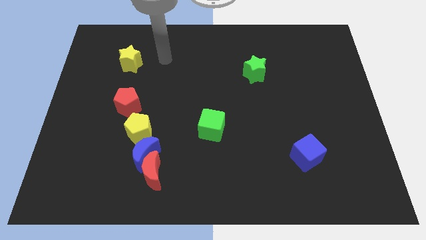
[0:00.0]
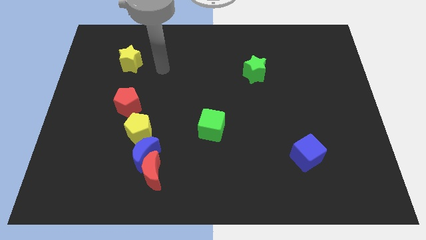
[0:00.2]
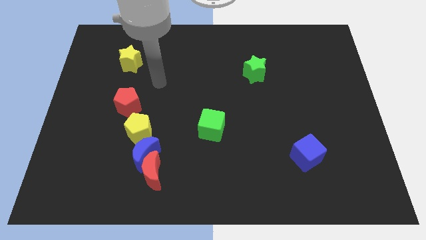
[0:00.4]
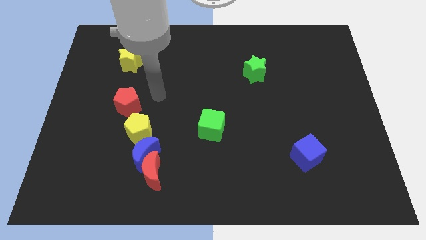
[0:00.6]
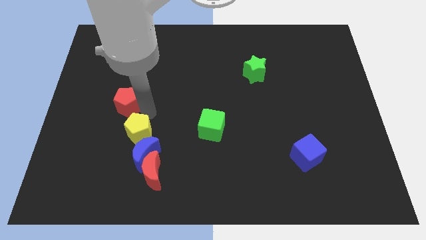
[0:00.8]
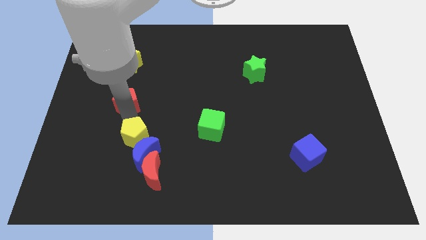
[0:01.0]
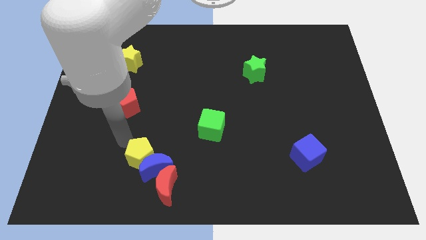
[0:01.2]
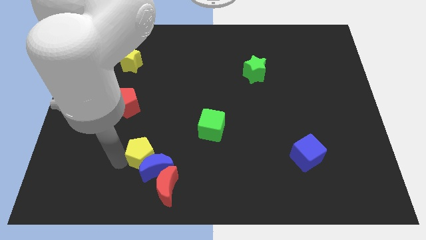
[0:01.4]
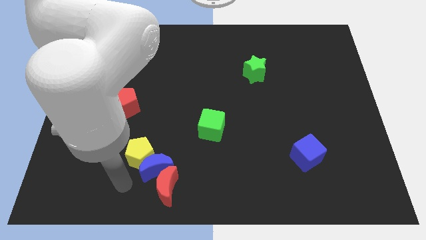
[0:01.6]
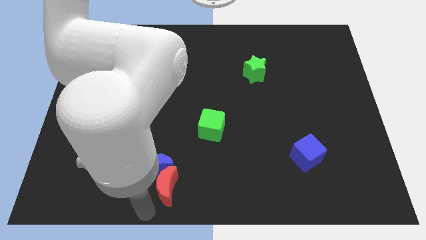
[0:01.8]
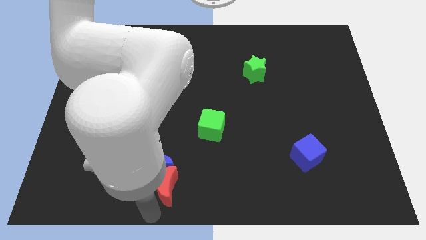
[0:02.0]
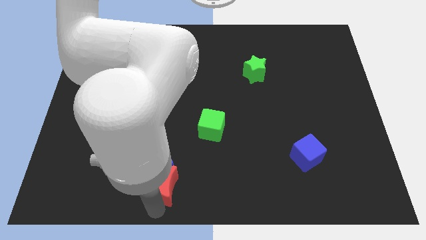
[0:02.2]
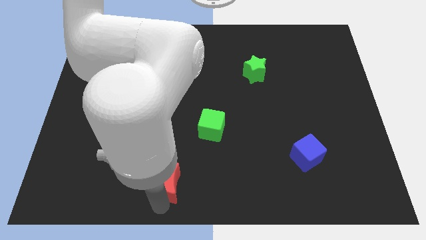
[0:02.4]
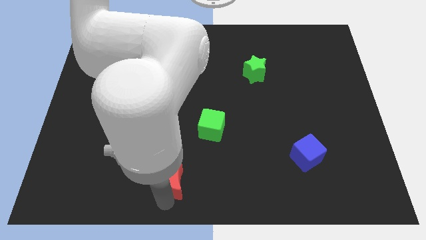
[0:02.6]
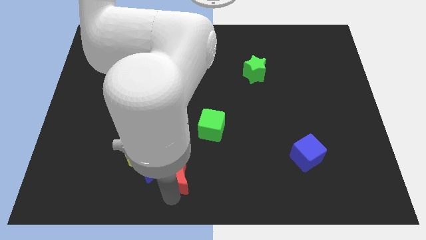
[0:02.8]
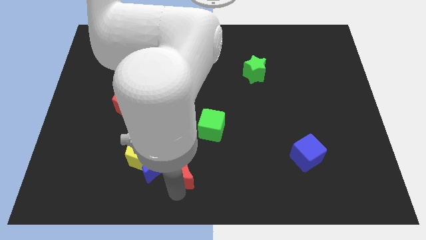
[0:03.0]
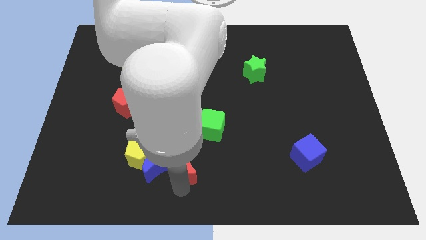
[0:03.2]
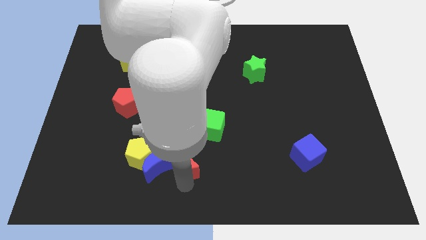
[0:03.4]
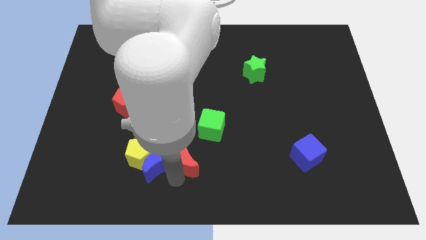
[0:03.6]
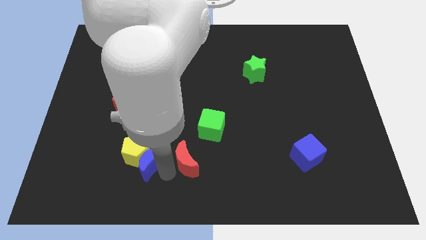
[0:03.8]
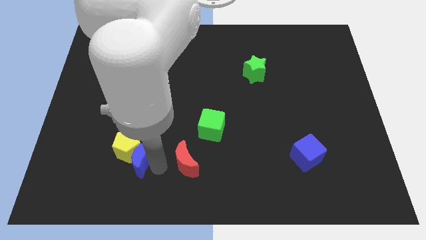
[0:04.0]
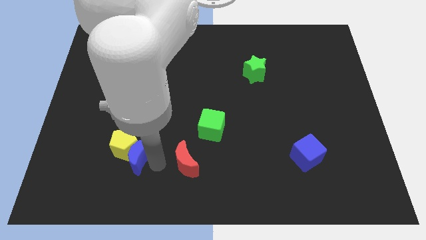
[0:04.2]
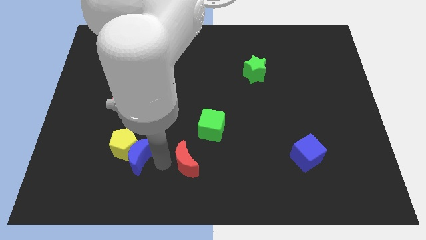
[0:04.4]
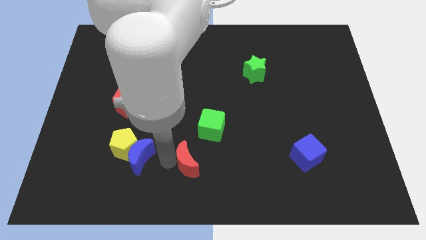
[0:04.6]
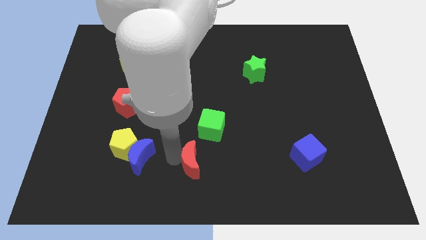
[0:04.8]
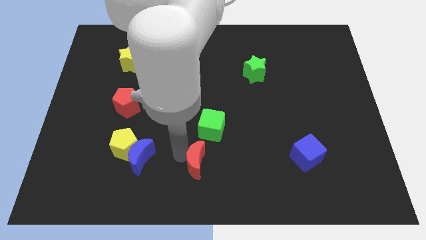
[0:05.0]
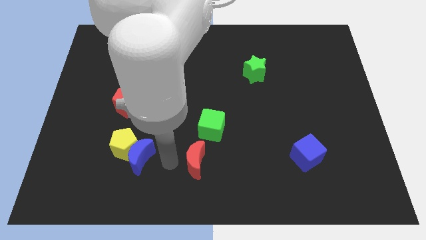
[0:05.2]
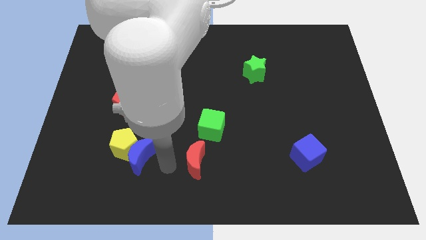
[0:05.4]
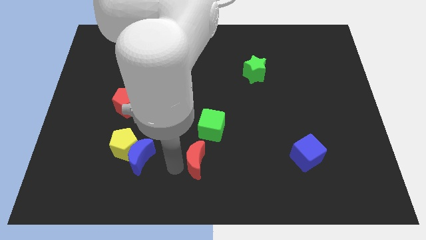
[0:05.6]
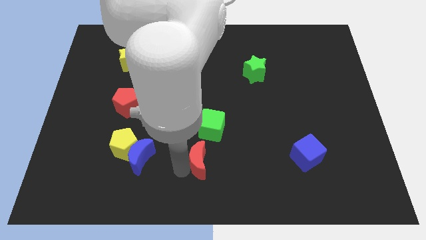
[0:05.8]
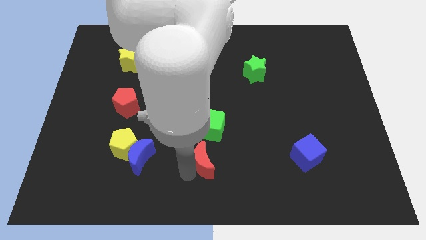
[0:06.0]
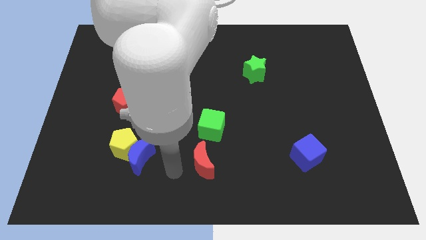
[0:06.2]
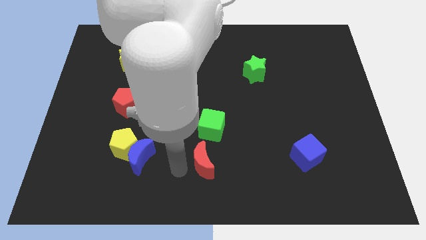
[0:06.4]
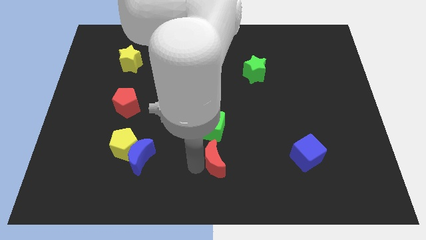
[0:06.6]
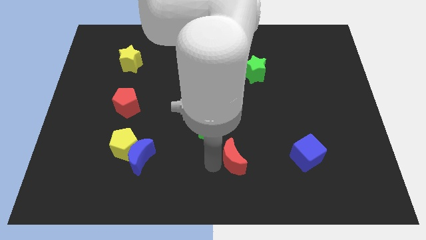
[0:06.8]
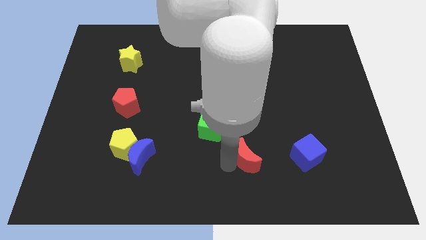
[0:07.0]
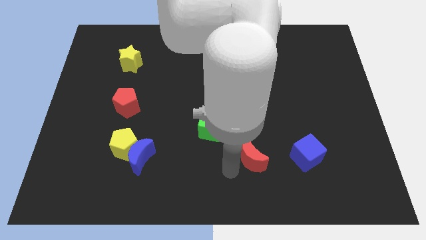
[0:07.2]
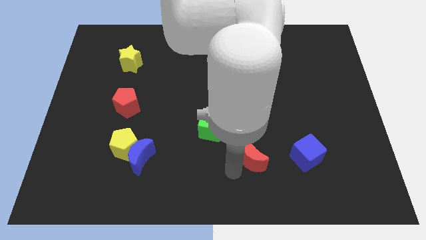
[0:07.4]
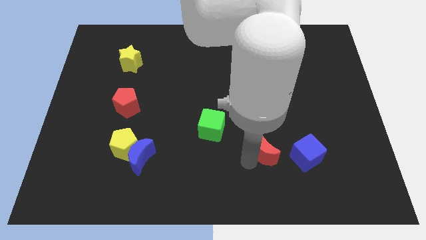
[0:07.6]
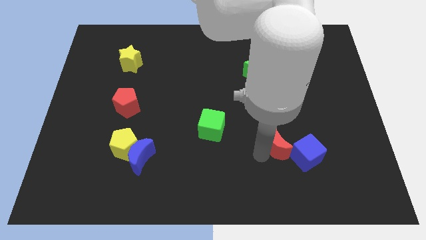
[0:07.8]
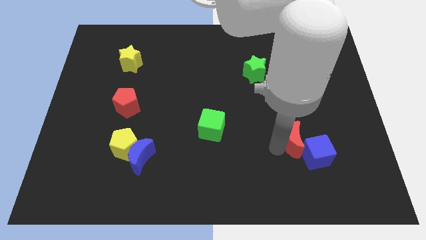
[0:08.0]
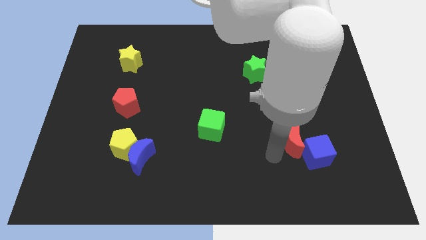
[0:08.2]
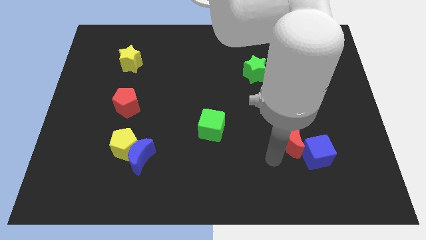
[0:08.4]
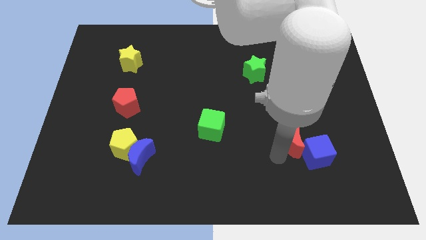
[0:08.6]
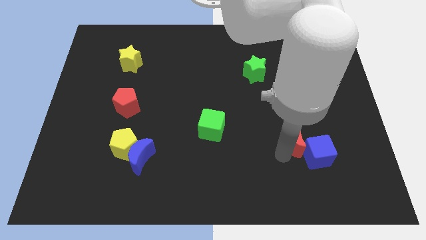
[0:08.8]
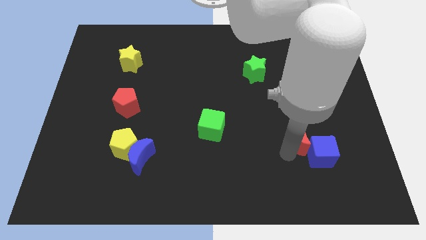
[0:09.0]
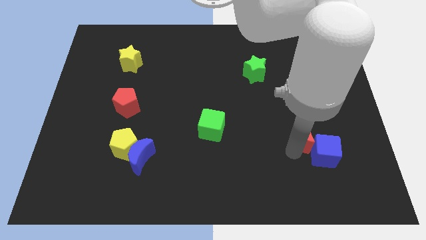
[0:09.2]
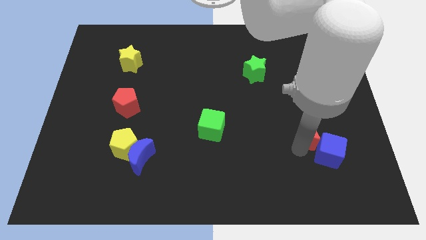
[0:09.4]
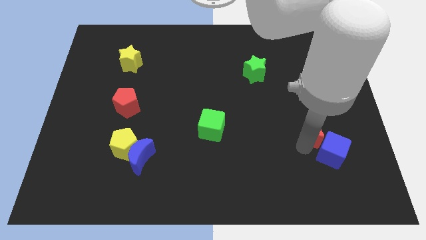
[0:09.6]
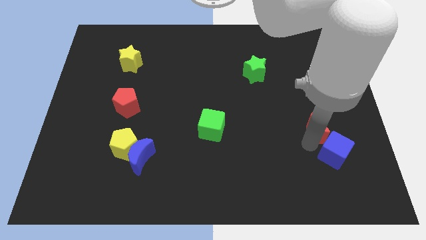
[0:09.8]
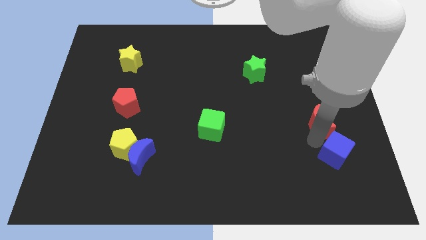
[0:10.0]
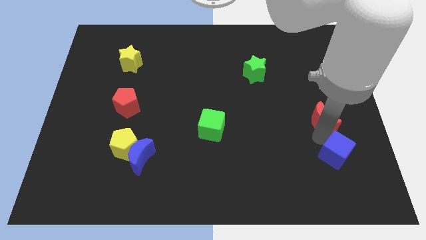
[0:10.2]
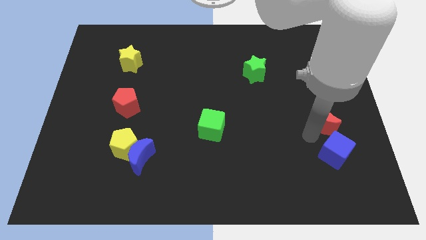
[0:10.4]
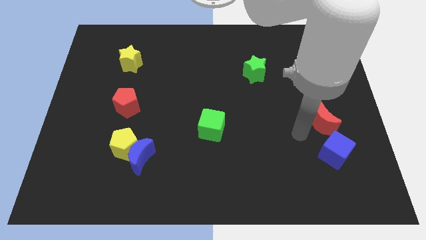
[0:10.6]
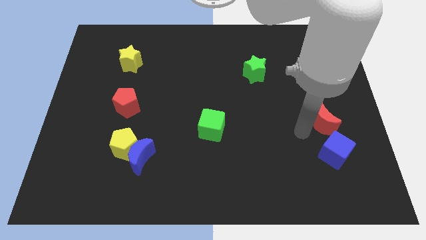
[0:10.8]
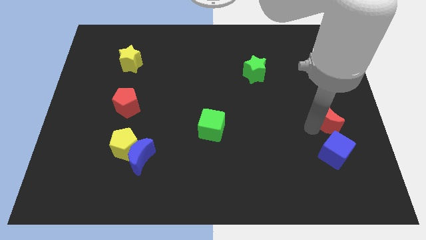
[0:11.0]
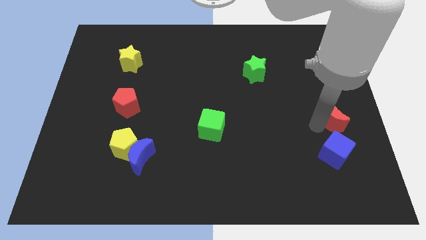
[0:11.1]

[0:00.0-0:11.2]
move the red moon to the right side of the board
